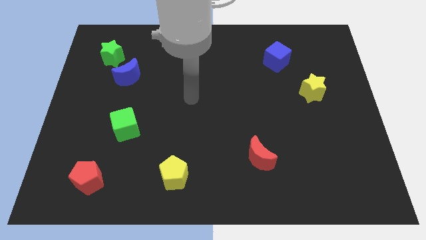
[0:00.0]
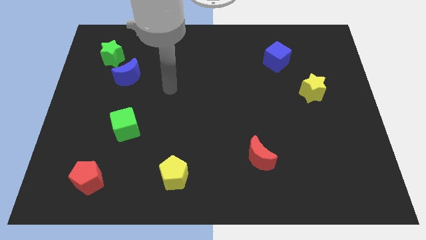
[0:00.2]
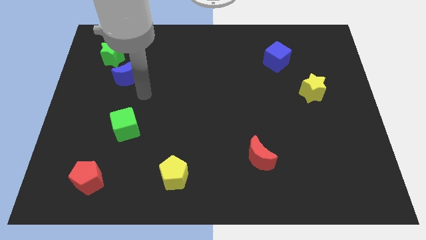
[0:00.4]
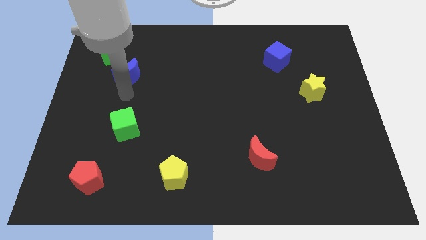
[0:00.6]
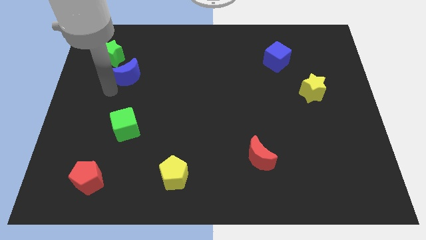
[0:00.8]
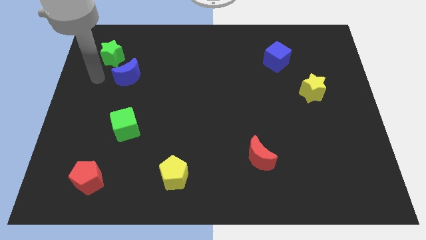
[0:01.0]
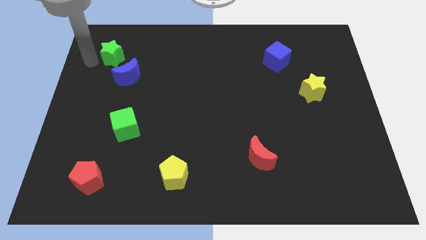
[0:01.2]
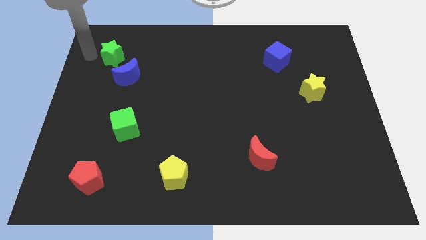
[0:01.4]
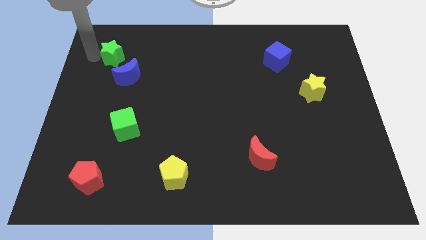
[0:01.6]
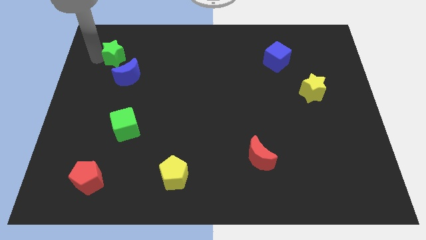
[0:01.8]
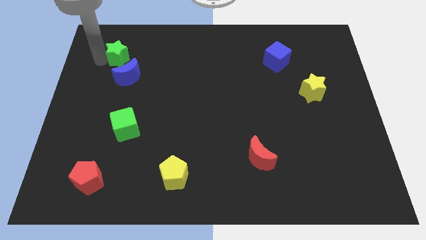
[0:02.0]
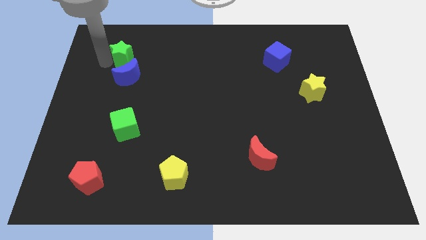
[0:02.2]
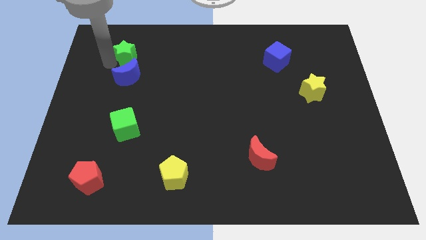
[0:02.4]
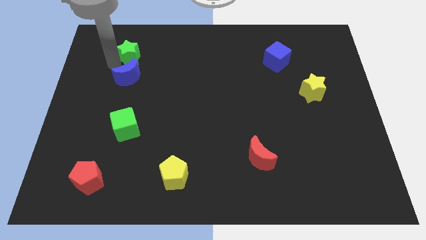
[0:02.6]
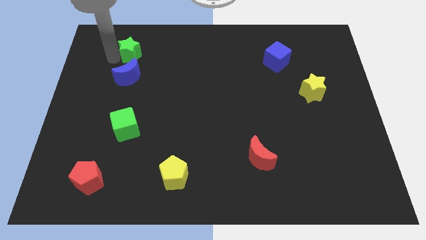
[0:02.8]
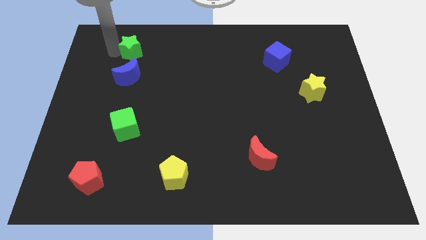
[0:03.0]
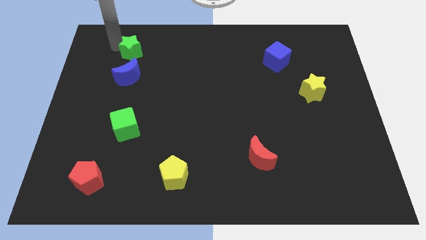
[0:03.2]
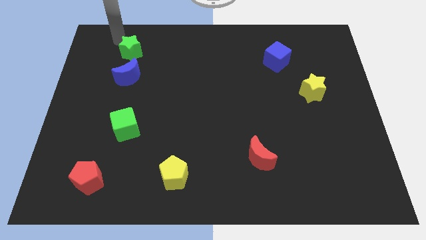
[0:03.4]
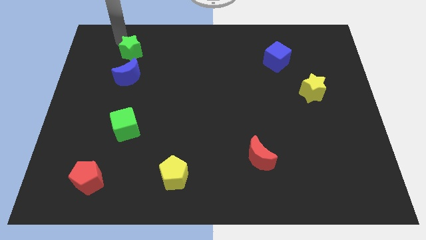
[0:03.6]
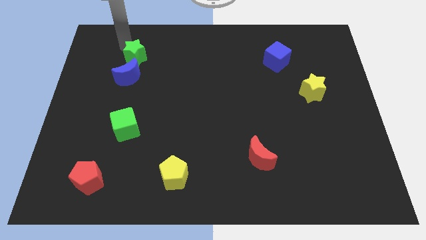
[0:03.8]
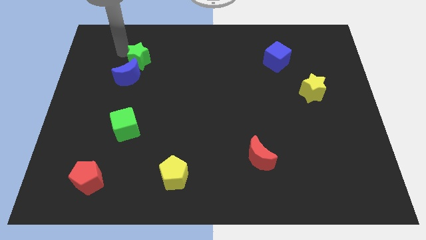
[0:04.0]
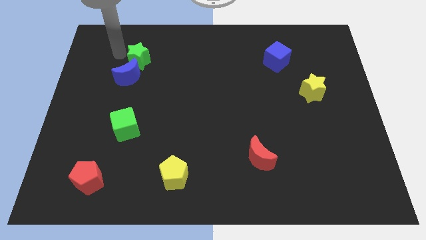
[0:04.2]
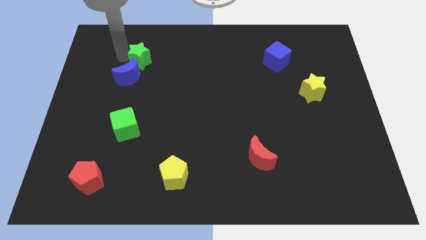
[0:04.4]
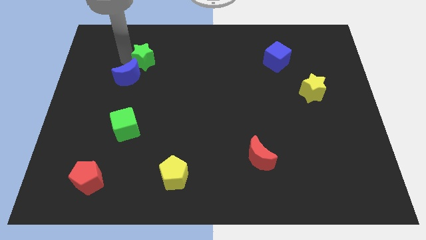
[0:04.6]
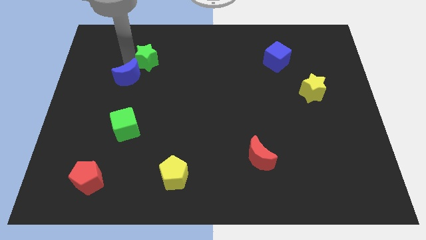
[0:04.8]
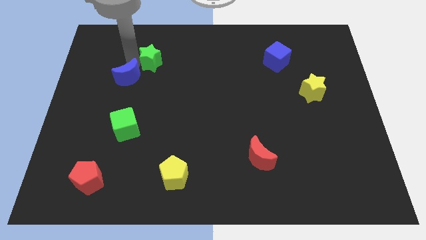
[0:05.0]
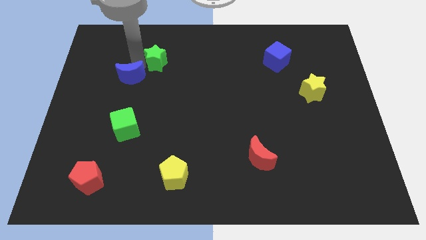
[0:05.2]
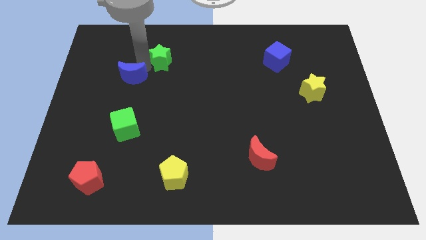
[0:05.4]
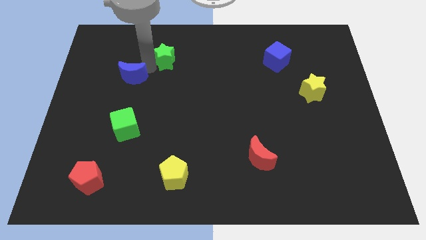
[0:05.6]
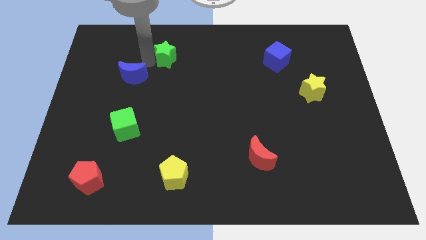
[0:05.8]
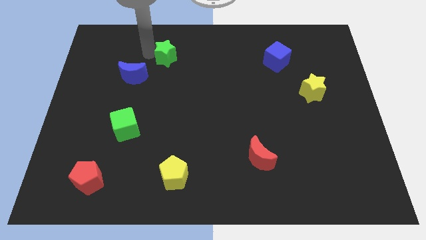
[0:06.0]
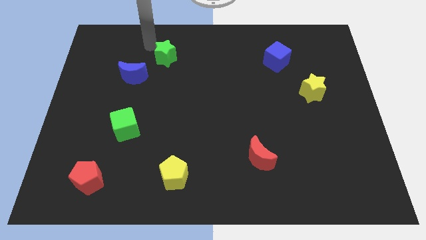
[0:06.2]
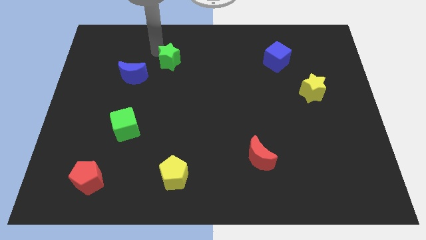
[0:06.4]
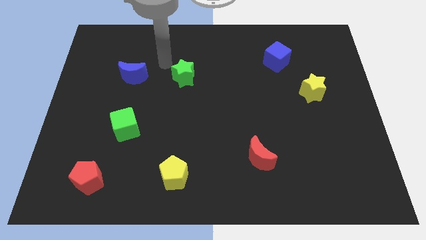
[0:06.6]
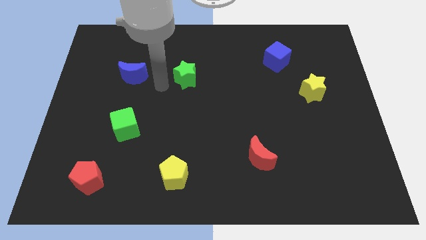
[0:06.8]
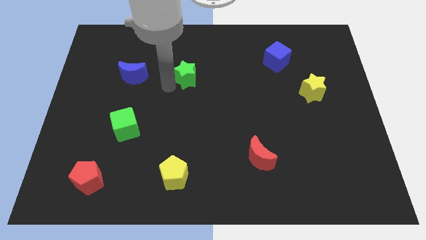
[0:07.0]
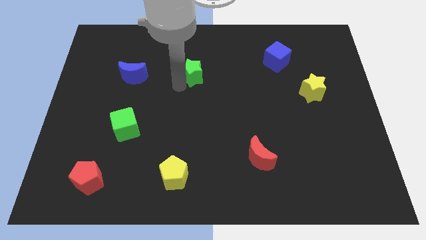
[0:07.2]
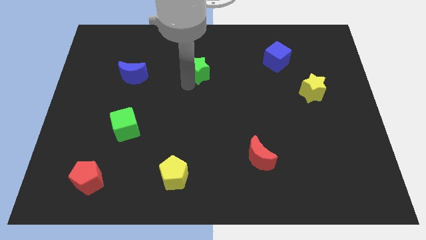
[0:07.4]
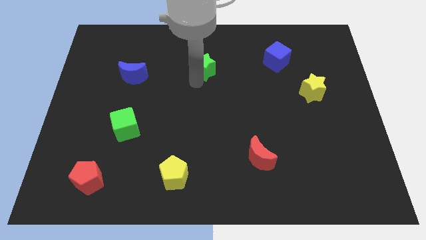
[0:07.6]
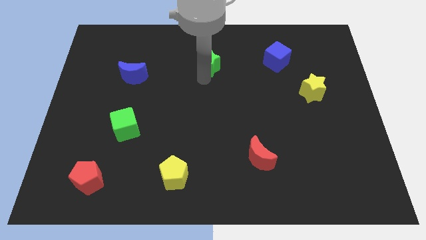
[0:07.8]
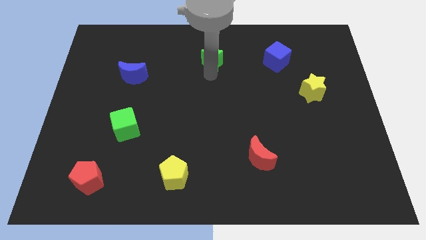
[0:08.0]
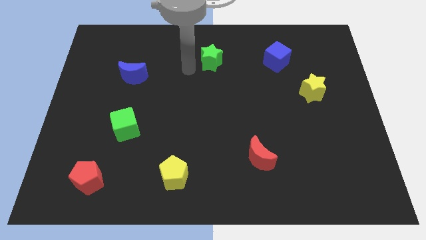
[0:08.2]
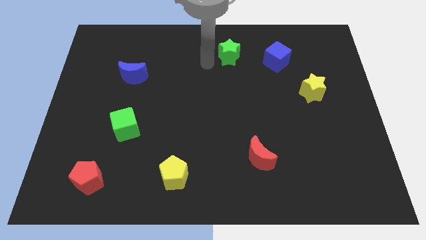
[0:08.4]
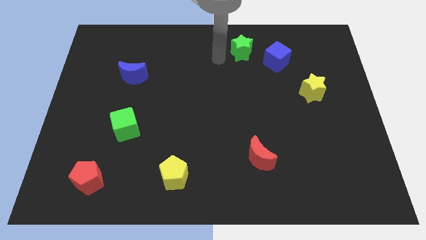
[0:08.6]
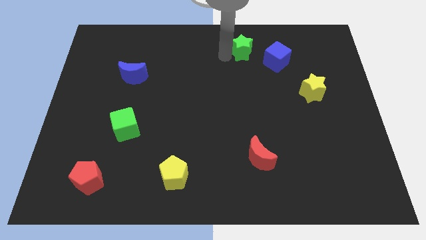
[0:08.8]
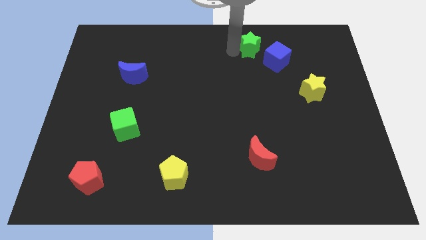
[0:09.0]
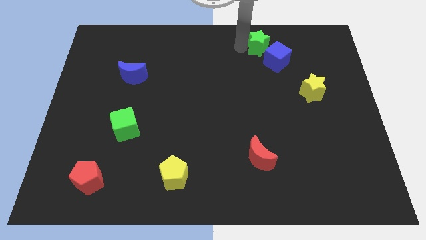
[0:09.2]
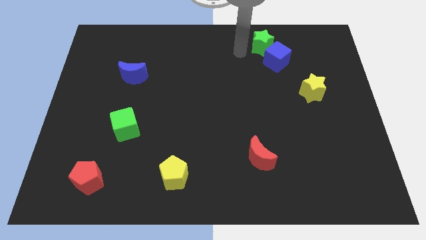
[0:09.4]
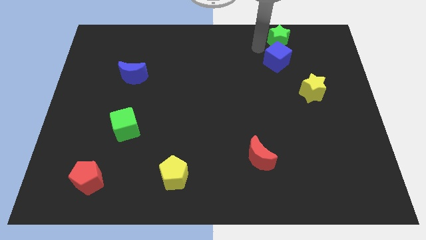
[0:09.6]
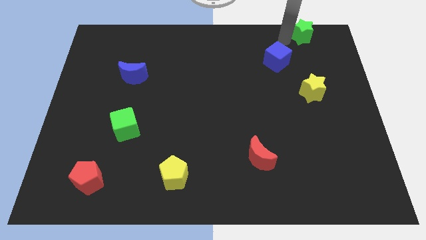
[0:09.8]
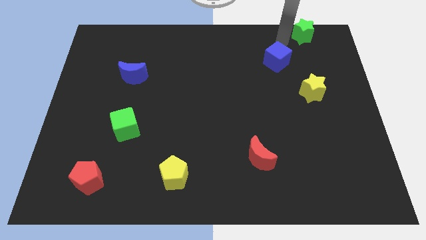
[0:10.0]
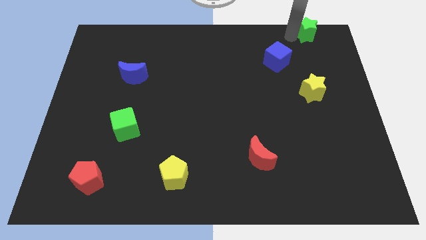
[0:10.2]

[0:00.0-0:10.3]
slide the green star to the top right corner

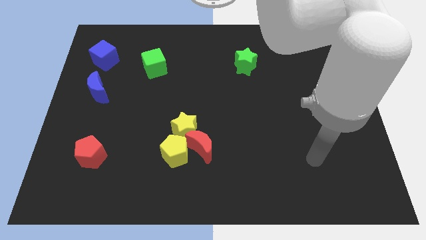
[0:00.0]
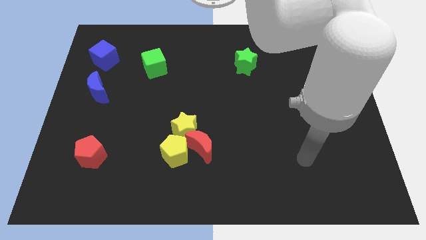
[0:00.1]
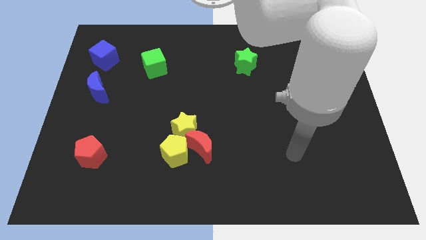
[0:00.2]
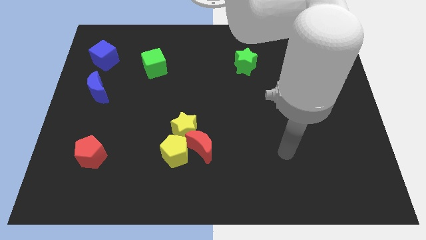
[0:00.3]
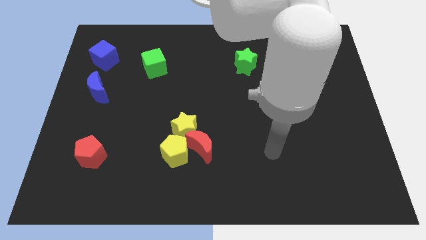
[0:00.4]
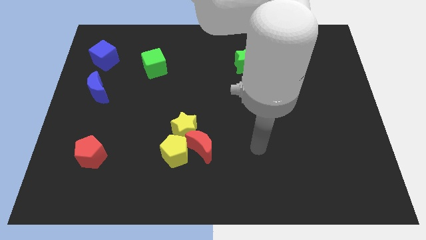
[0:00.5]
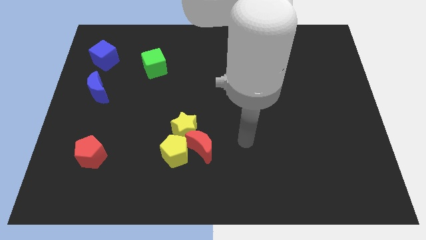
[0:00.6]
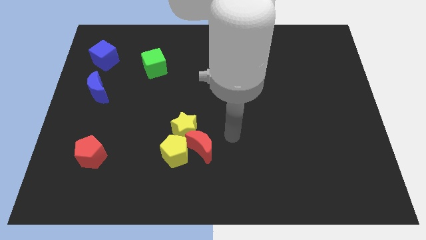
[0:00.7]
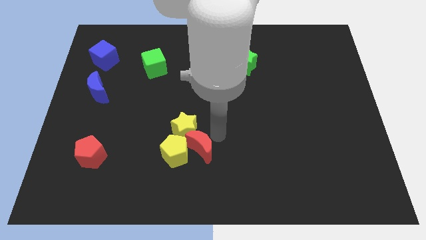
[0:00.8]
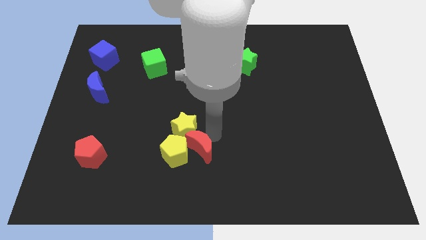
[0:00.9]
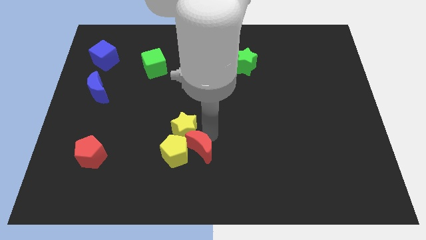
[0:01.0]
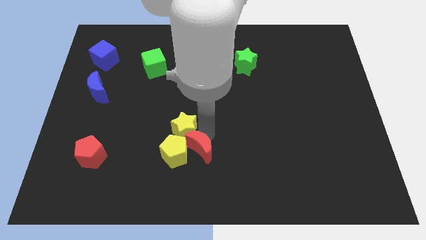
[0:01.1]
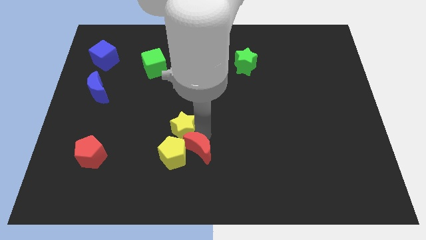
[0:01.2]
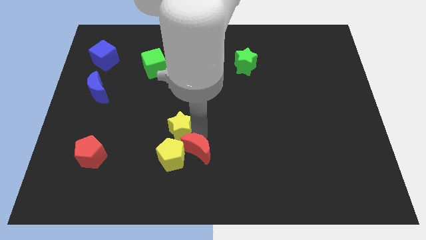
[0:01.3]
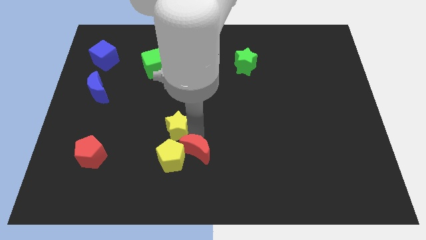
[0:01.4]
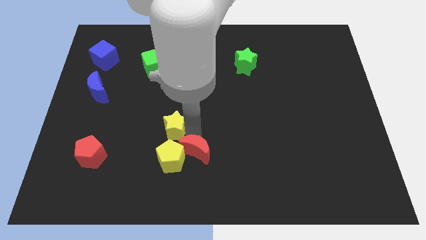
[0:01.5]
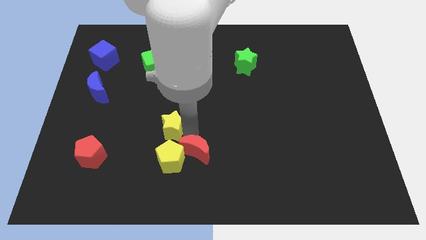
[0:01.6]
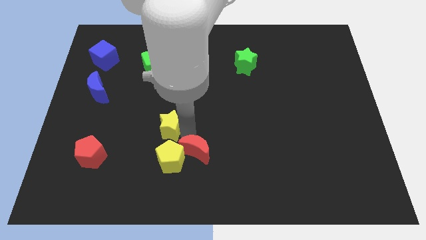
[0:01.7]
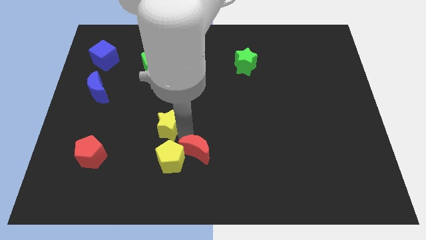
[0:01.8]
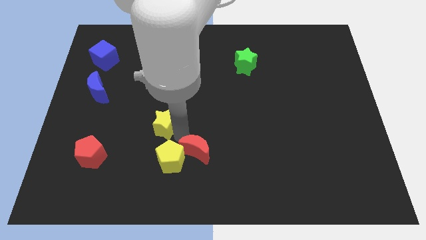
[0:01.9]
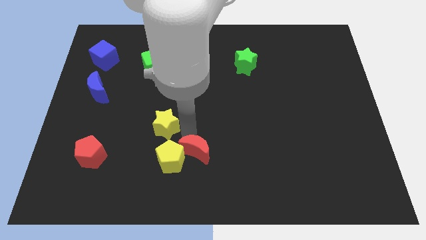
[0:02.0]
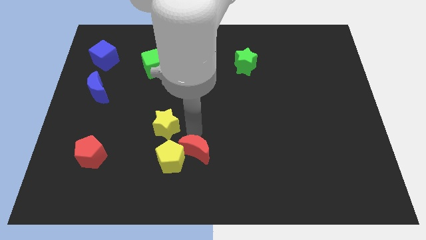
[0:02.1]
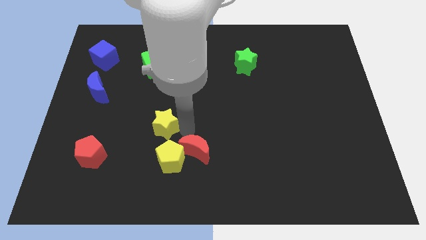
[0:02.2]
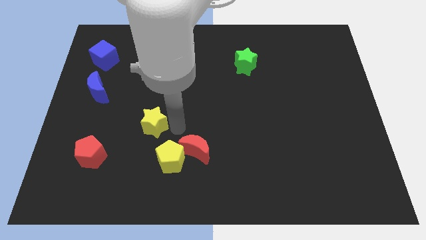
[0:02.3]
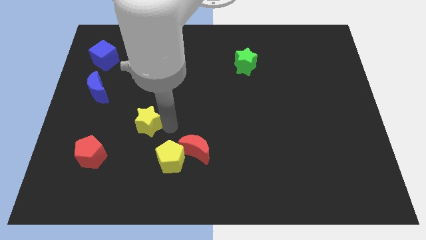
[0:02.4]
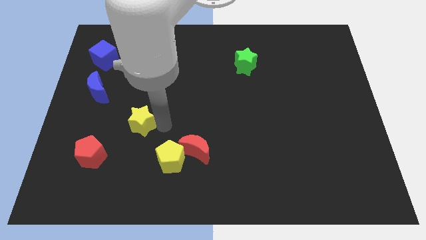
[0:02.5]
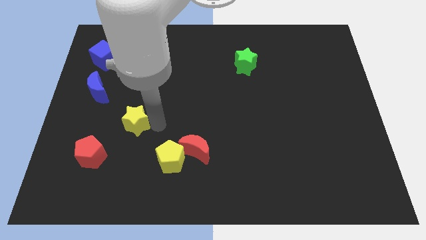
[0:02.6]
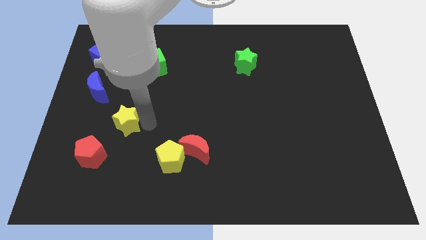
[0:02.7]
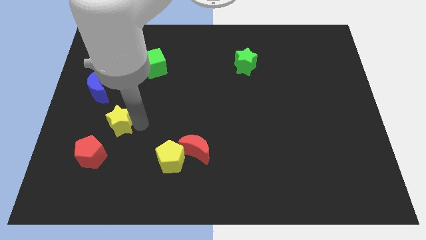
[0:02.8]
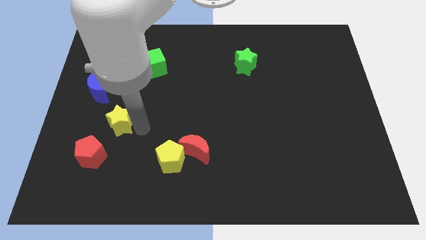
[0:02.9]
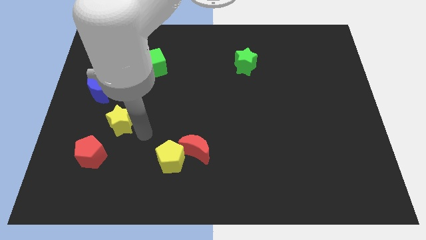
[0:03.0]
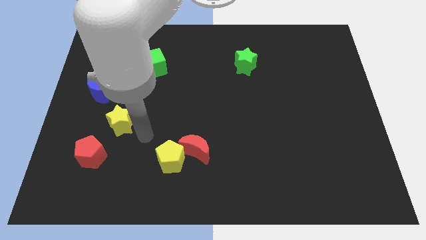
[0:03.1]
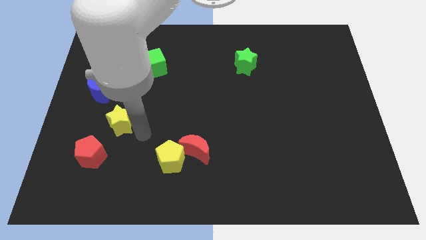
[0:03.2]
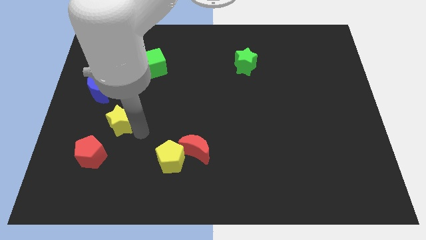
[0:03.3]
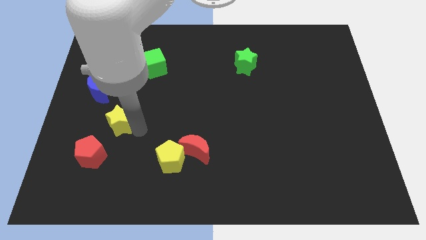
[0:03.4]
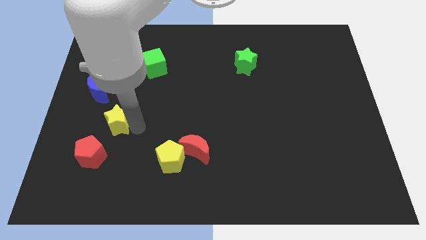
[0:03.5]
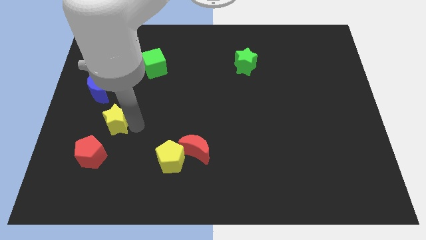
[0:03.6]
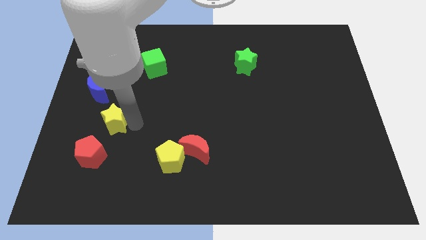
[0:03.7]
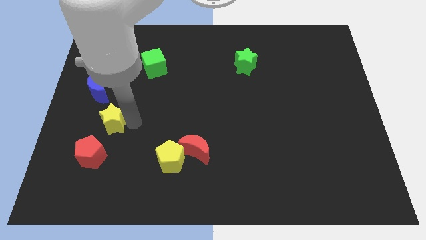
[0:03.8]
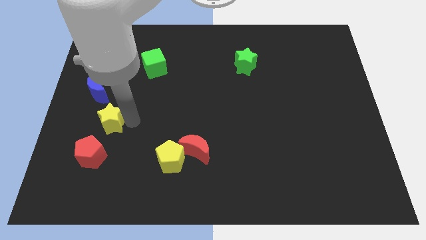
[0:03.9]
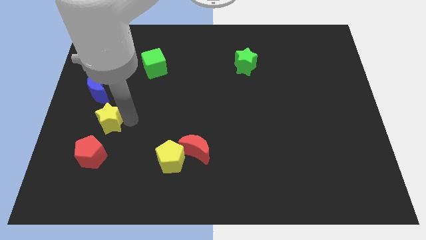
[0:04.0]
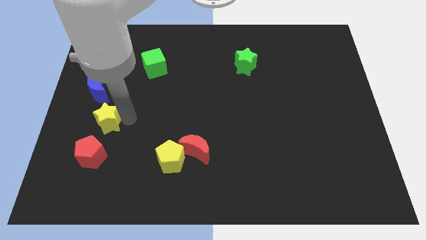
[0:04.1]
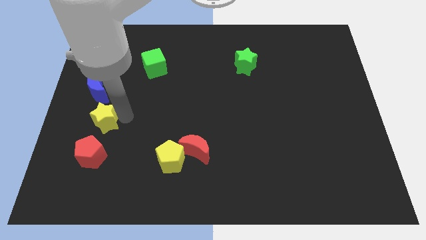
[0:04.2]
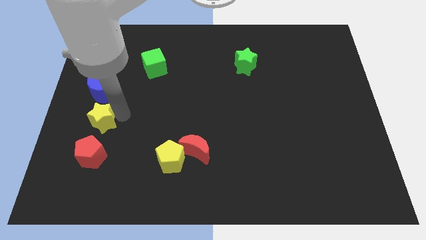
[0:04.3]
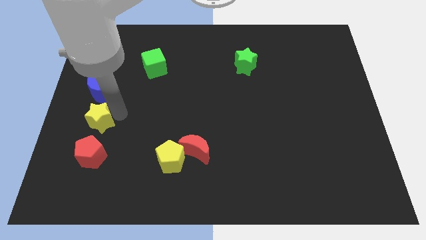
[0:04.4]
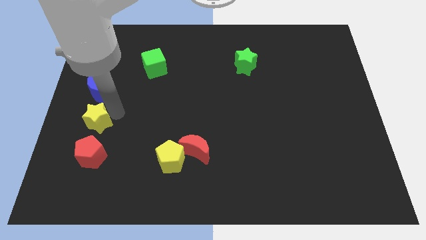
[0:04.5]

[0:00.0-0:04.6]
slide the yellow star to the center left
